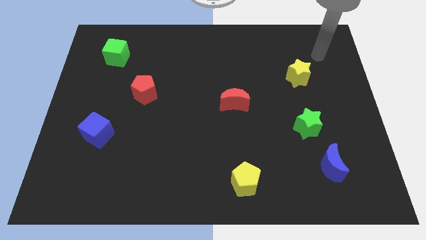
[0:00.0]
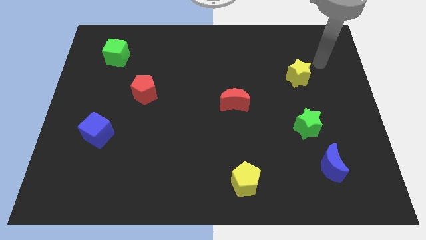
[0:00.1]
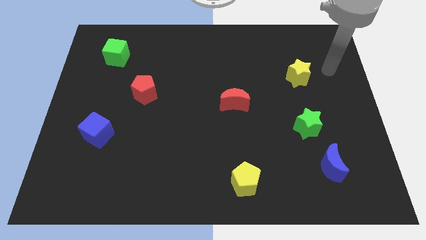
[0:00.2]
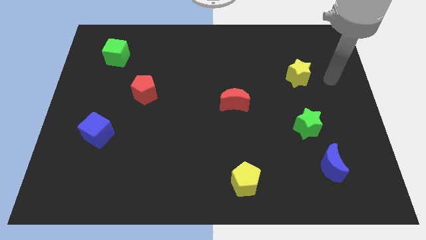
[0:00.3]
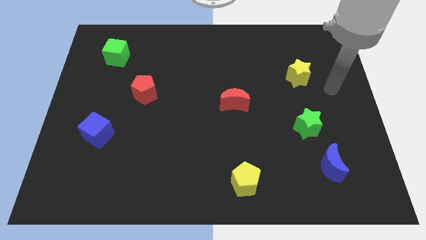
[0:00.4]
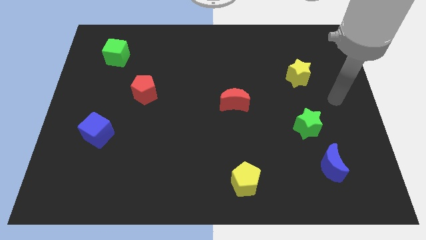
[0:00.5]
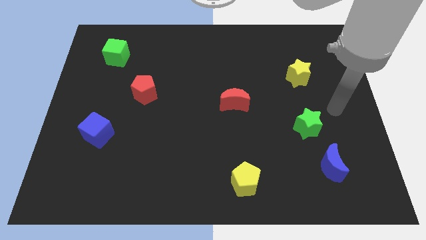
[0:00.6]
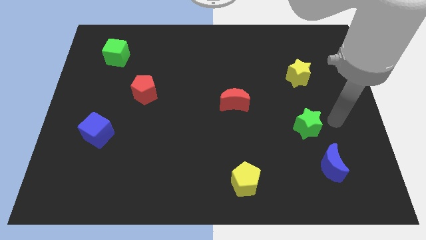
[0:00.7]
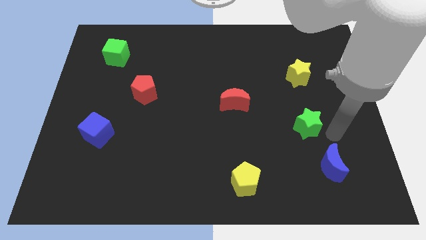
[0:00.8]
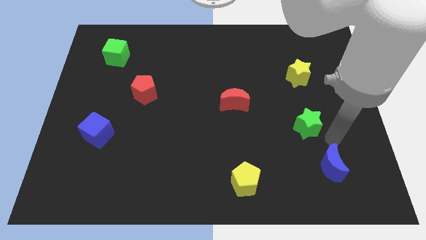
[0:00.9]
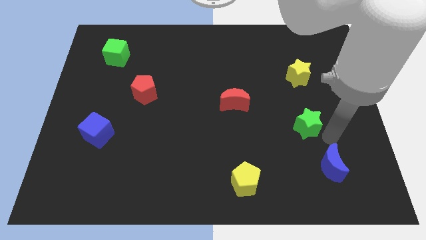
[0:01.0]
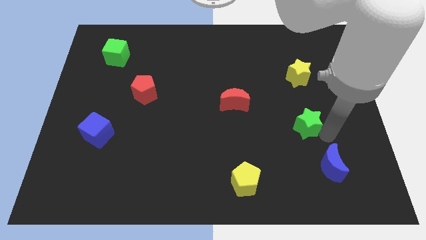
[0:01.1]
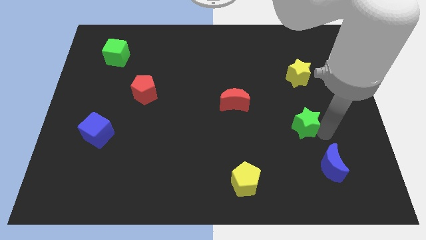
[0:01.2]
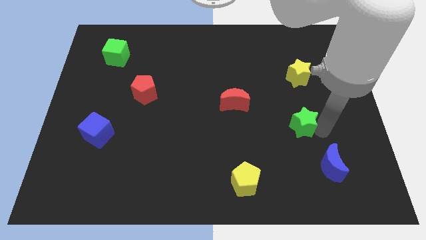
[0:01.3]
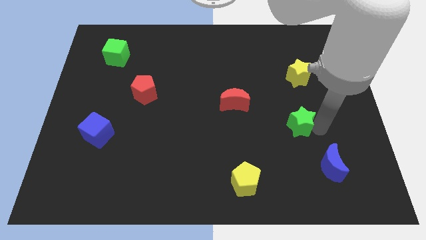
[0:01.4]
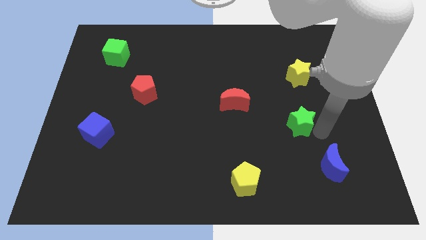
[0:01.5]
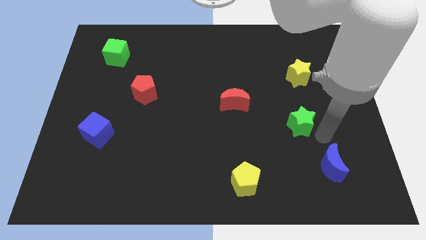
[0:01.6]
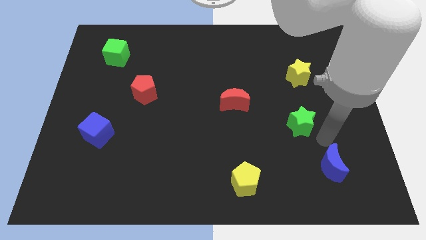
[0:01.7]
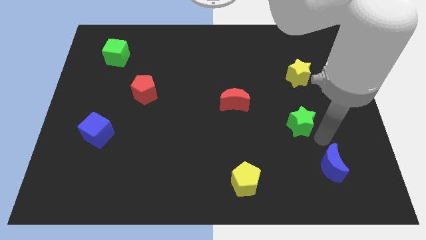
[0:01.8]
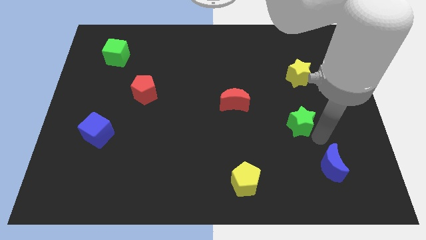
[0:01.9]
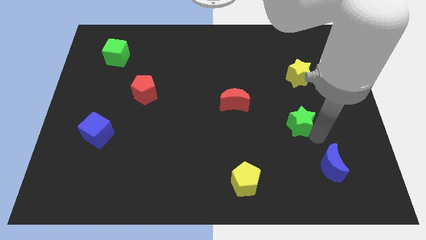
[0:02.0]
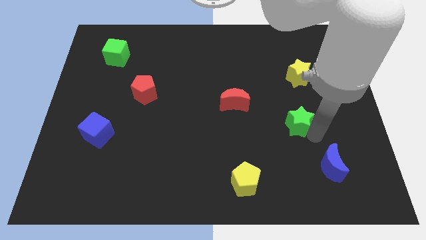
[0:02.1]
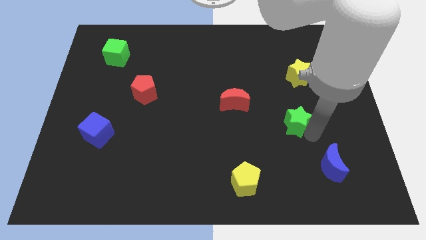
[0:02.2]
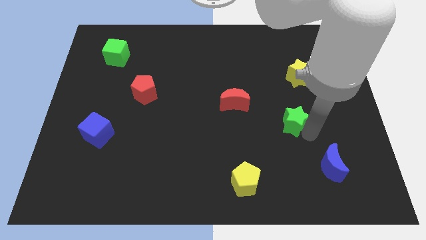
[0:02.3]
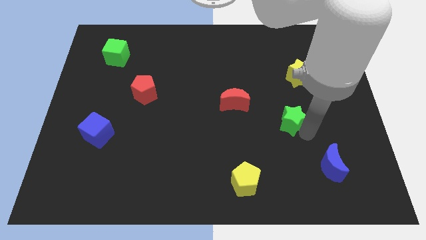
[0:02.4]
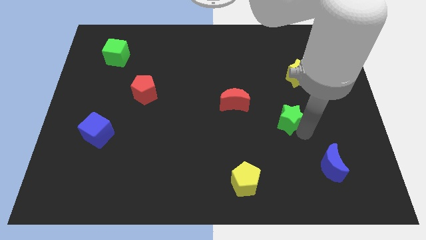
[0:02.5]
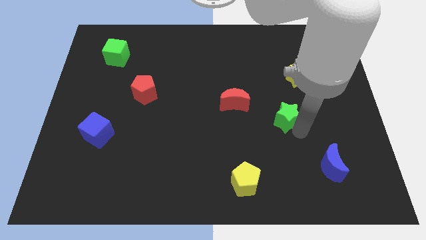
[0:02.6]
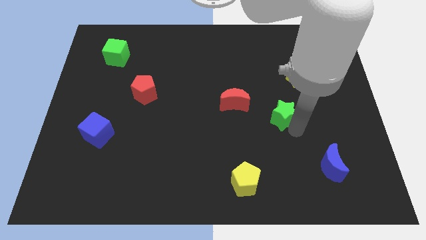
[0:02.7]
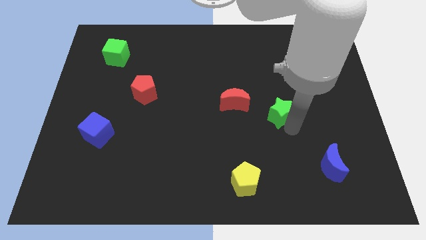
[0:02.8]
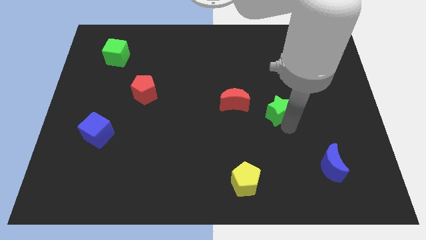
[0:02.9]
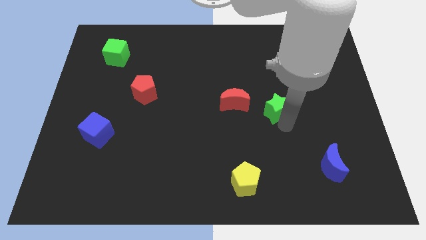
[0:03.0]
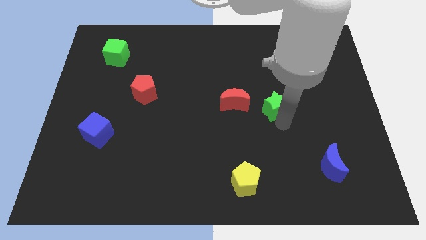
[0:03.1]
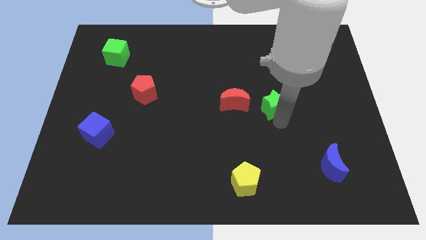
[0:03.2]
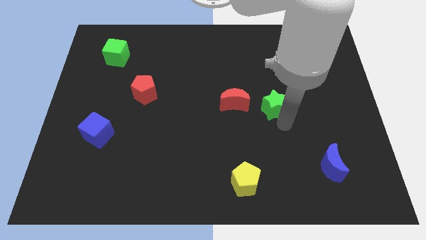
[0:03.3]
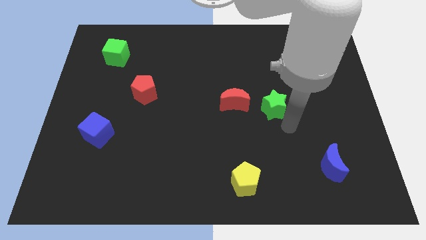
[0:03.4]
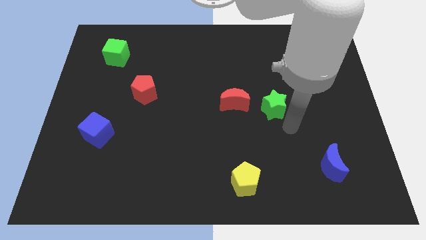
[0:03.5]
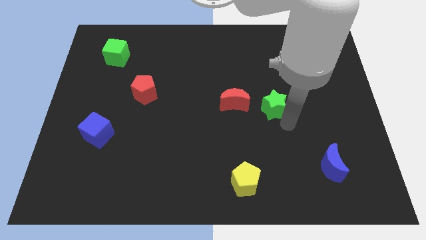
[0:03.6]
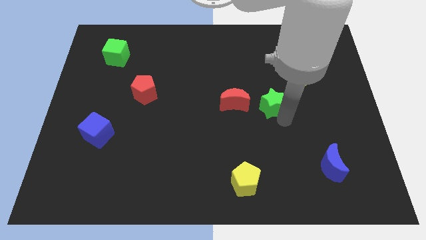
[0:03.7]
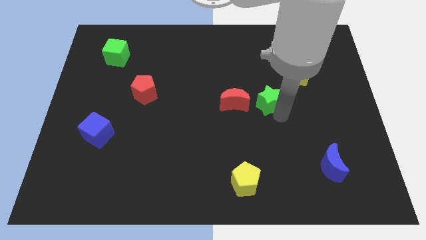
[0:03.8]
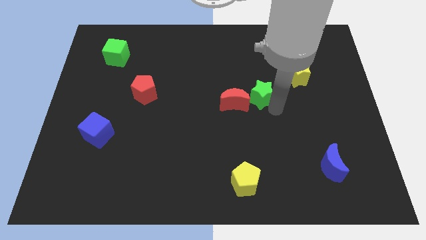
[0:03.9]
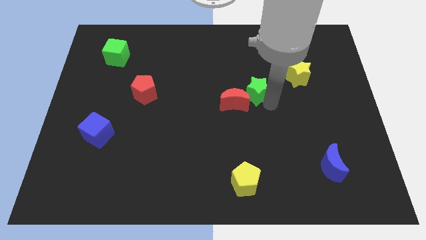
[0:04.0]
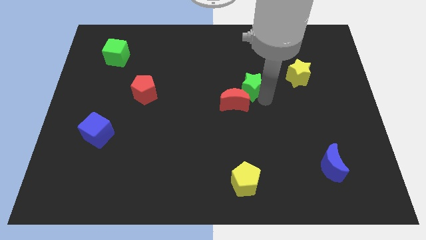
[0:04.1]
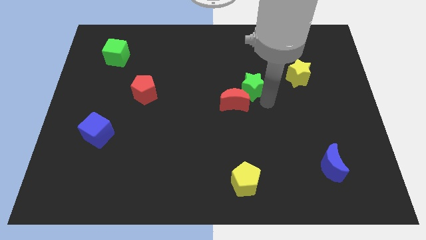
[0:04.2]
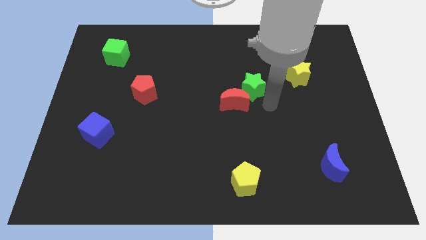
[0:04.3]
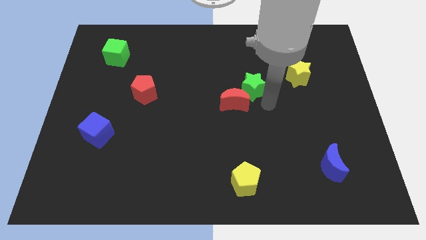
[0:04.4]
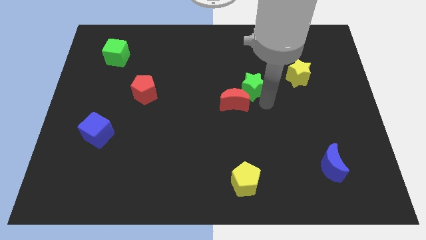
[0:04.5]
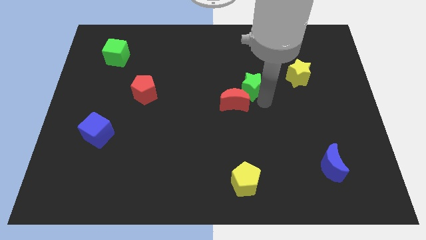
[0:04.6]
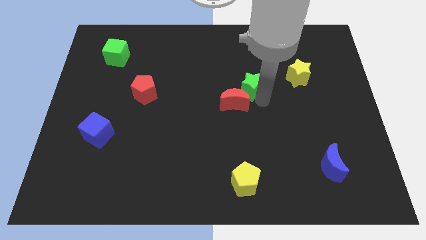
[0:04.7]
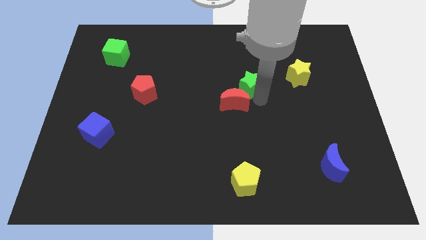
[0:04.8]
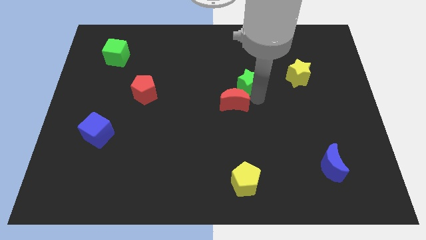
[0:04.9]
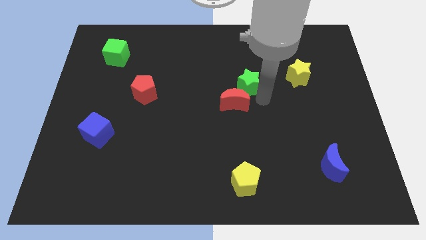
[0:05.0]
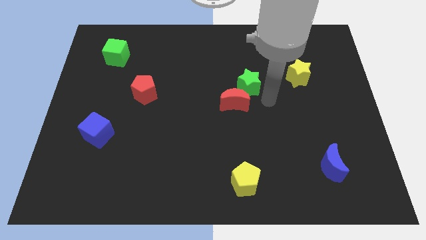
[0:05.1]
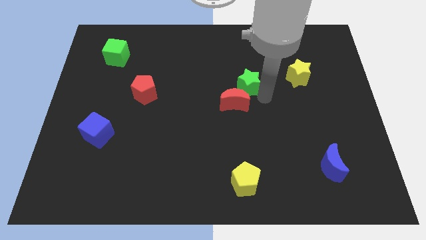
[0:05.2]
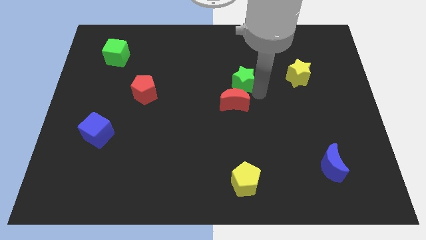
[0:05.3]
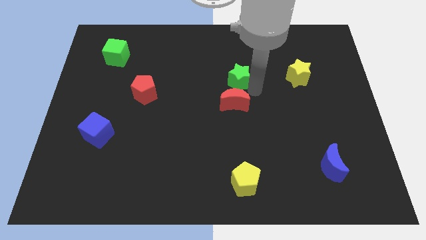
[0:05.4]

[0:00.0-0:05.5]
move the green star up and then to the left

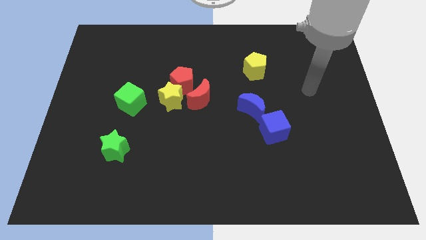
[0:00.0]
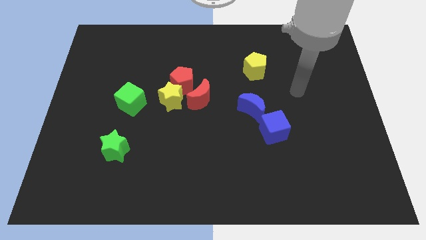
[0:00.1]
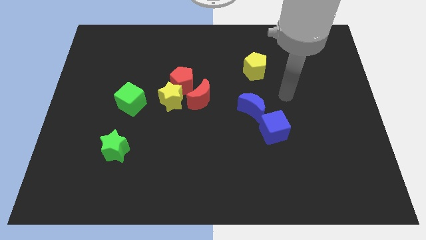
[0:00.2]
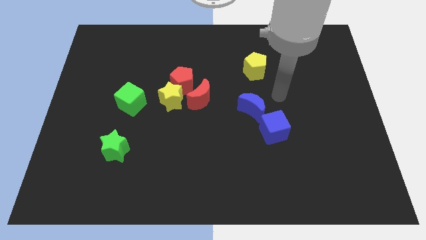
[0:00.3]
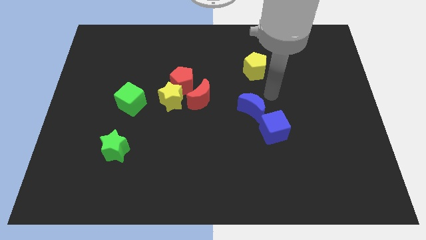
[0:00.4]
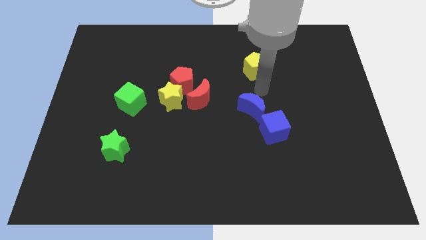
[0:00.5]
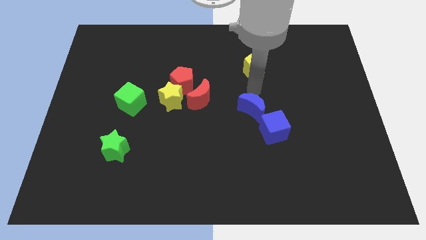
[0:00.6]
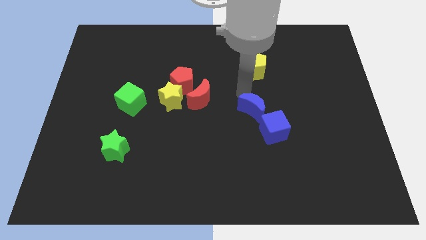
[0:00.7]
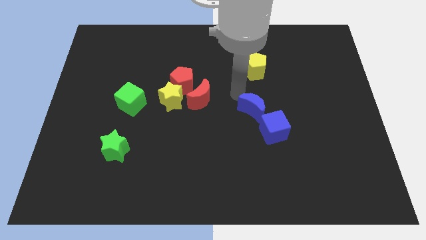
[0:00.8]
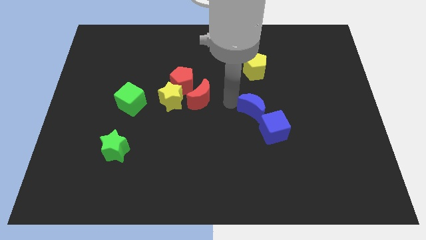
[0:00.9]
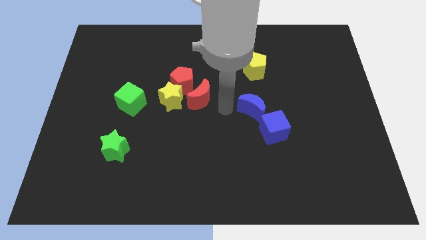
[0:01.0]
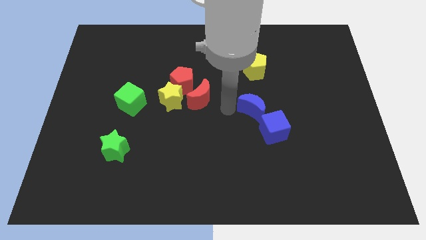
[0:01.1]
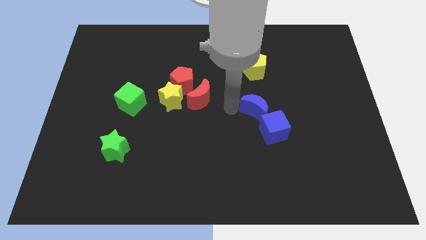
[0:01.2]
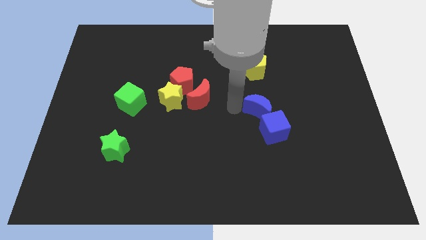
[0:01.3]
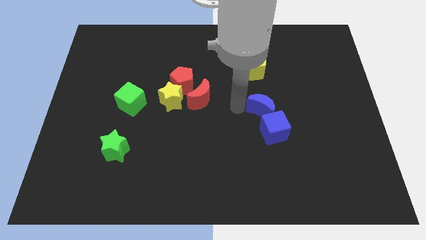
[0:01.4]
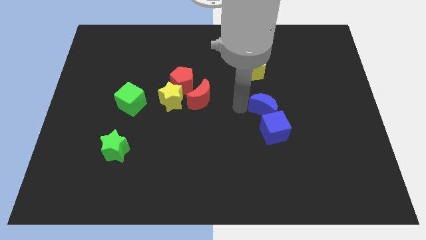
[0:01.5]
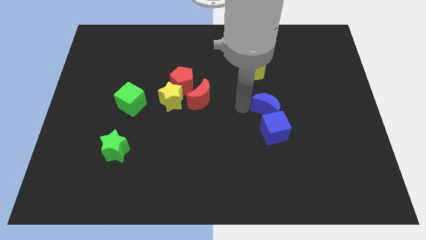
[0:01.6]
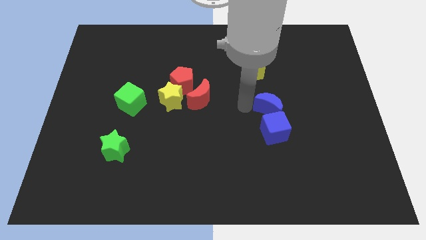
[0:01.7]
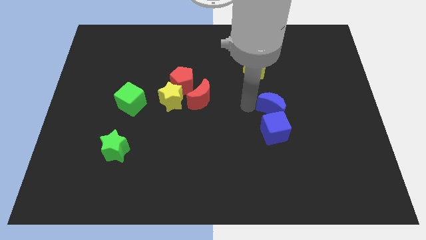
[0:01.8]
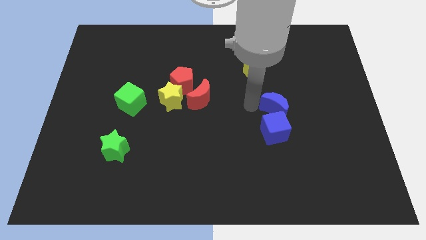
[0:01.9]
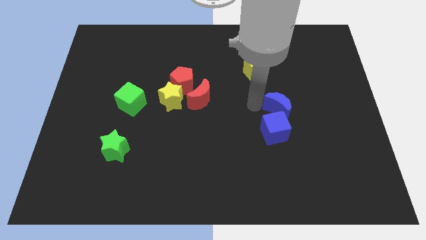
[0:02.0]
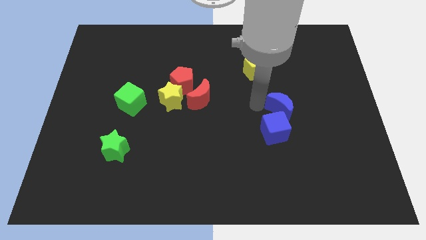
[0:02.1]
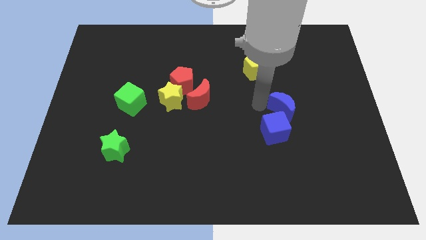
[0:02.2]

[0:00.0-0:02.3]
move the blue moon a little bit right

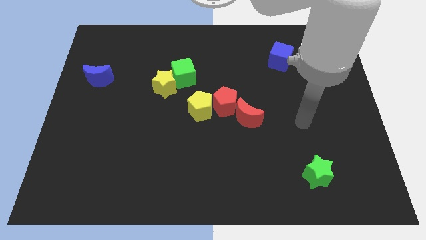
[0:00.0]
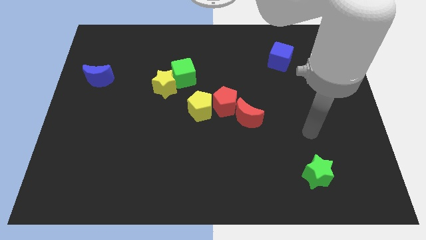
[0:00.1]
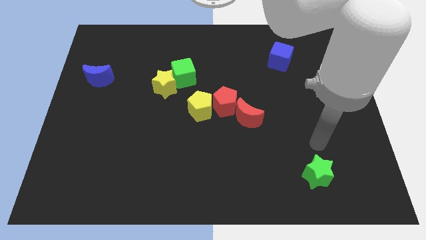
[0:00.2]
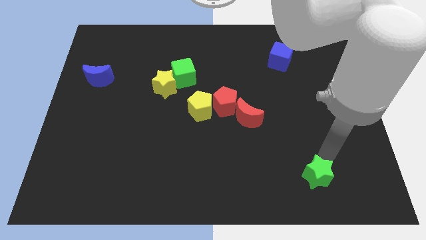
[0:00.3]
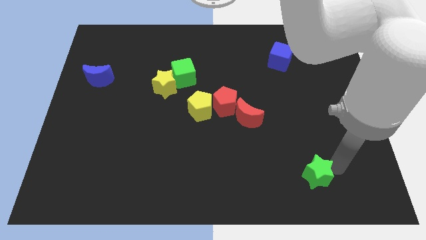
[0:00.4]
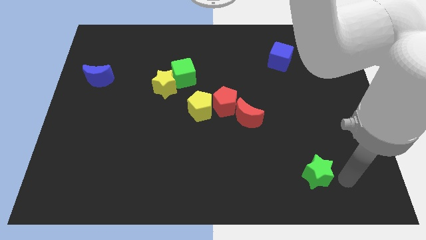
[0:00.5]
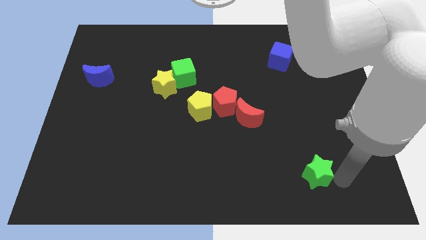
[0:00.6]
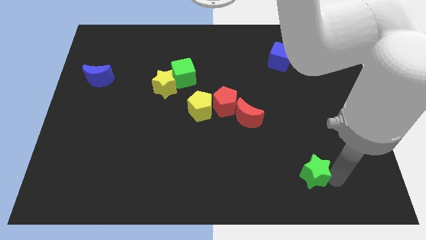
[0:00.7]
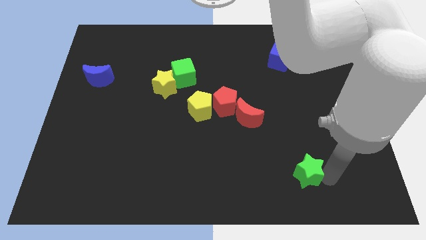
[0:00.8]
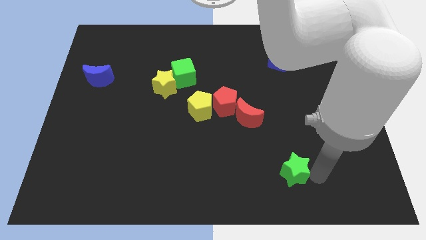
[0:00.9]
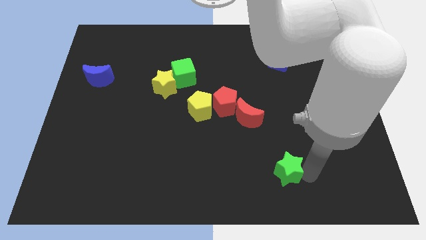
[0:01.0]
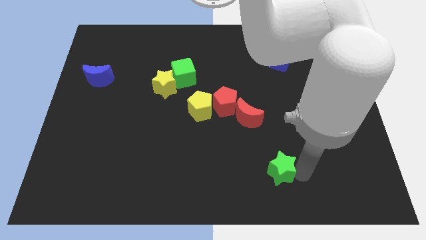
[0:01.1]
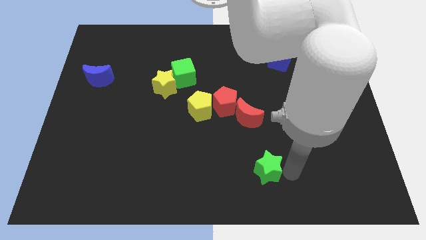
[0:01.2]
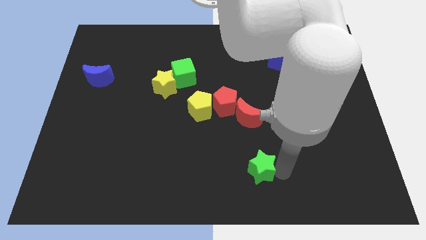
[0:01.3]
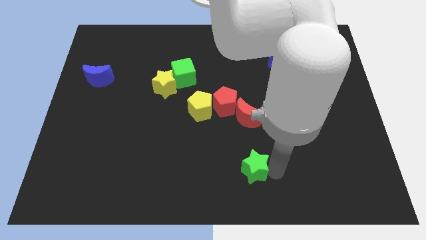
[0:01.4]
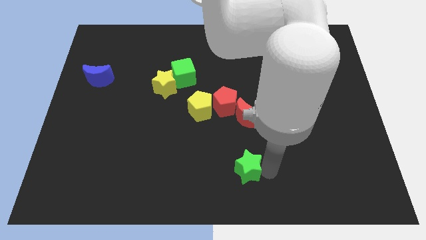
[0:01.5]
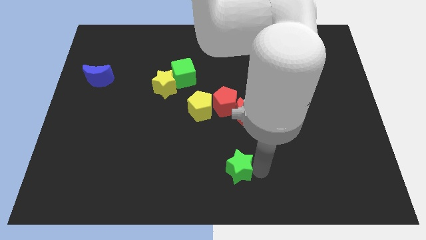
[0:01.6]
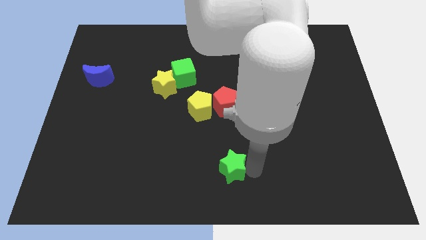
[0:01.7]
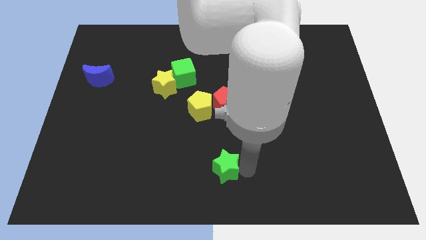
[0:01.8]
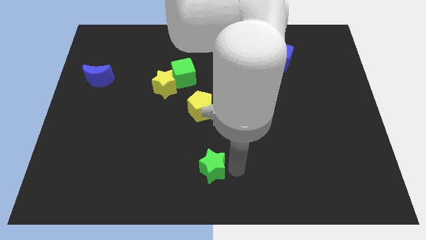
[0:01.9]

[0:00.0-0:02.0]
push the green star left
